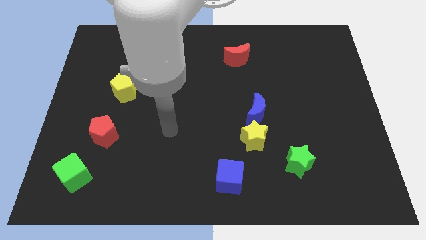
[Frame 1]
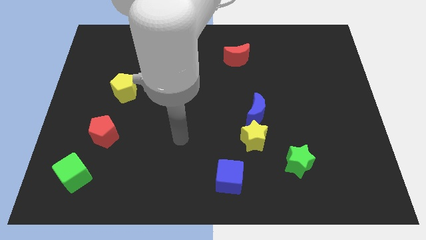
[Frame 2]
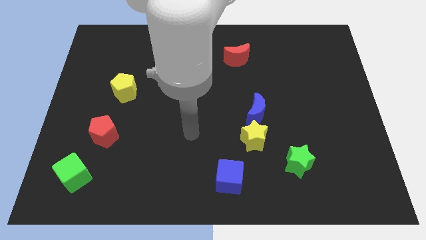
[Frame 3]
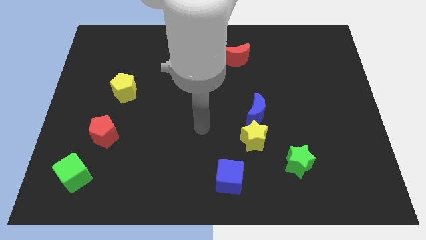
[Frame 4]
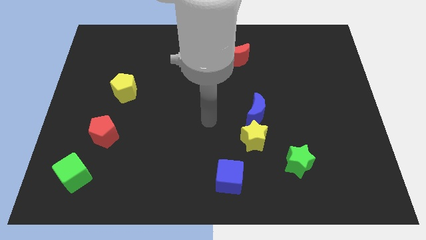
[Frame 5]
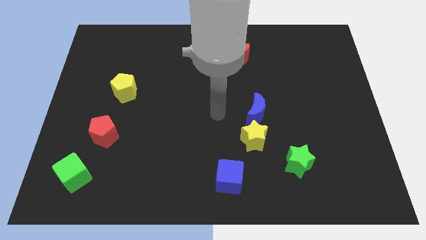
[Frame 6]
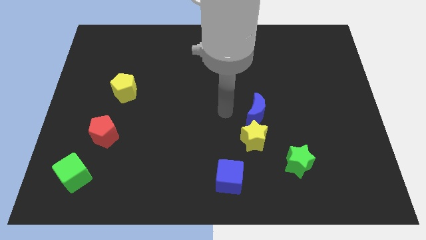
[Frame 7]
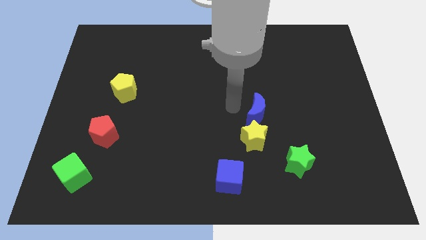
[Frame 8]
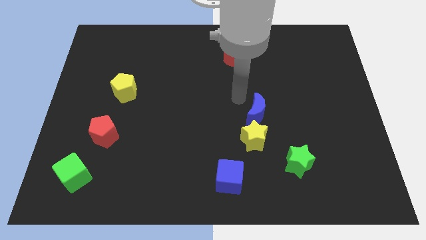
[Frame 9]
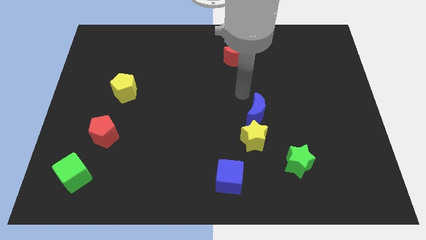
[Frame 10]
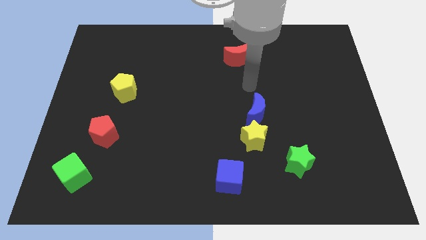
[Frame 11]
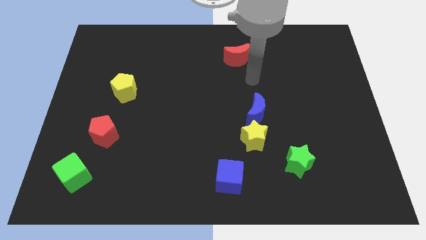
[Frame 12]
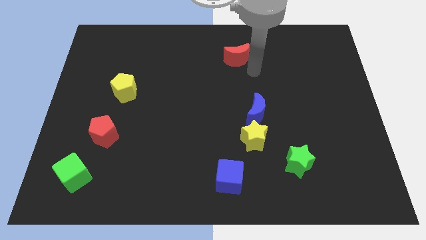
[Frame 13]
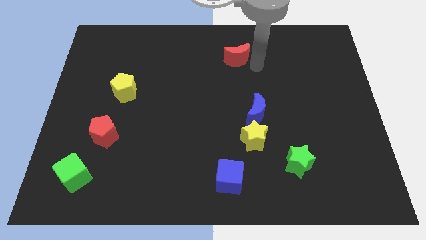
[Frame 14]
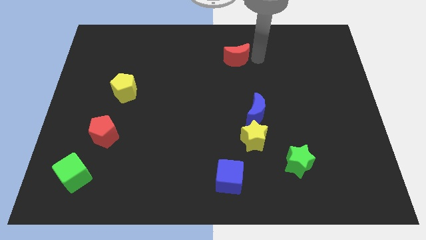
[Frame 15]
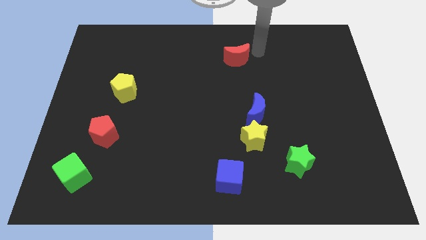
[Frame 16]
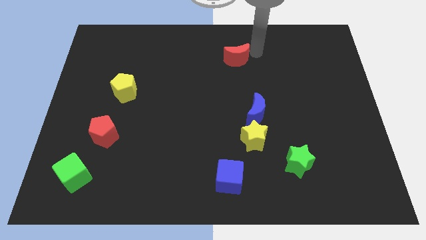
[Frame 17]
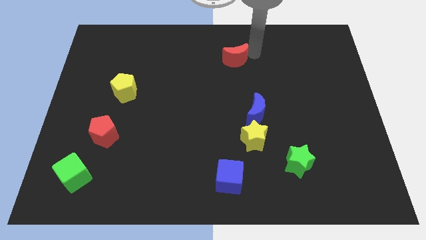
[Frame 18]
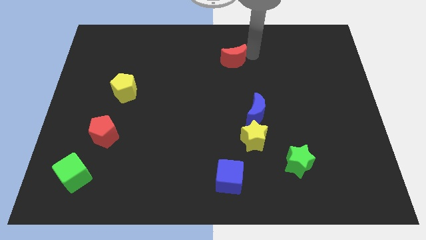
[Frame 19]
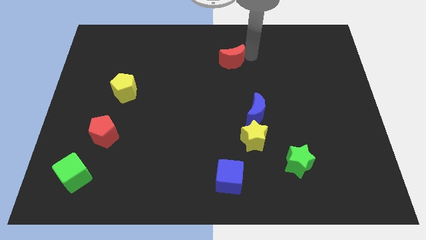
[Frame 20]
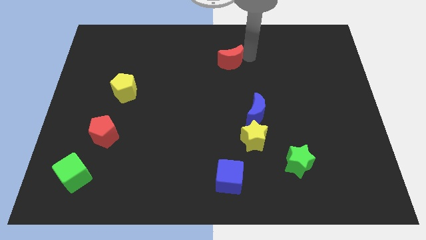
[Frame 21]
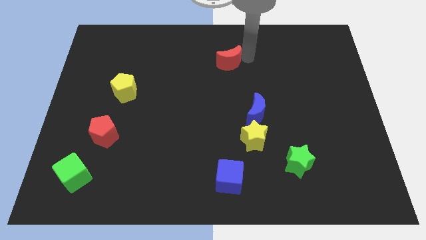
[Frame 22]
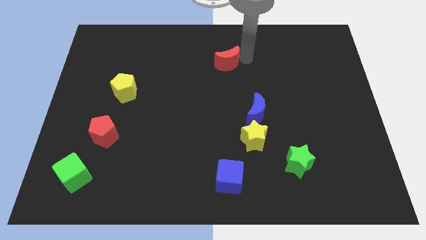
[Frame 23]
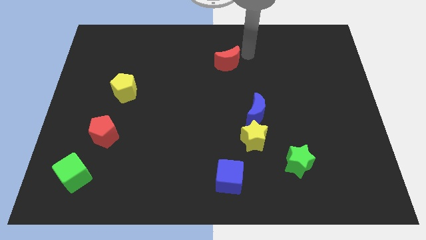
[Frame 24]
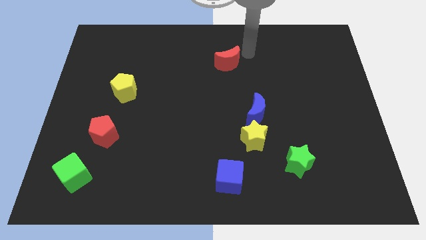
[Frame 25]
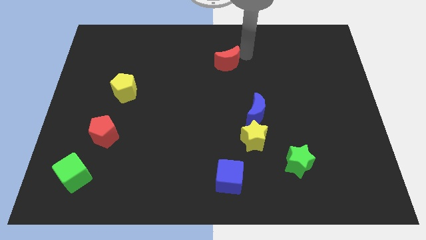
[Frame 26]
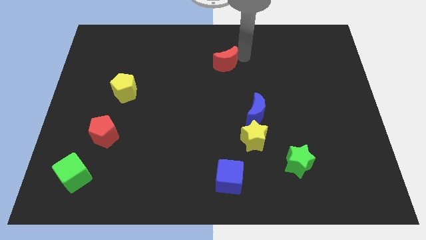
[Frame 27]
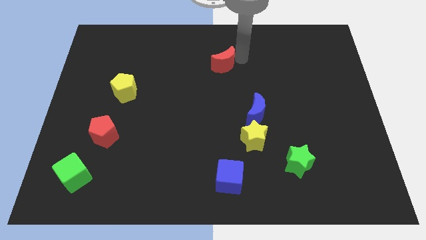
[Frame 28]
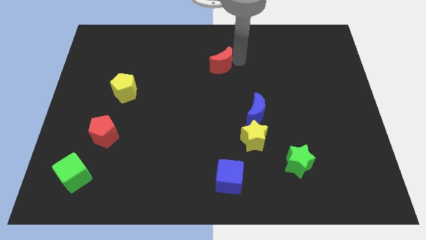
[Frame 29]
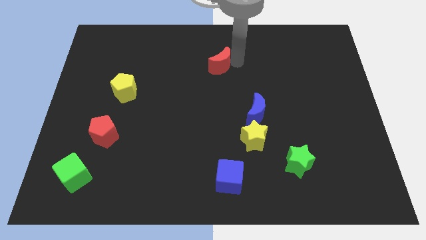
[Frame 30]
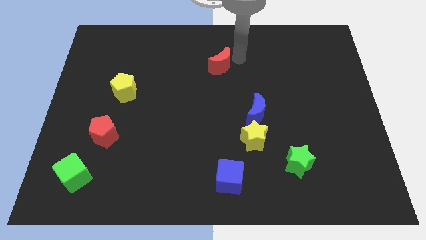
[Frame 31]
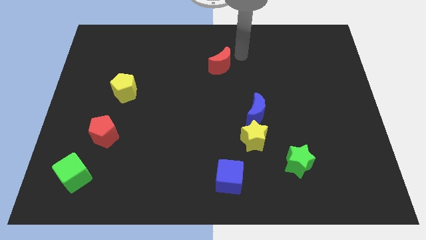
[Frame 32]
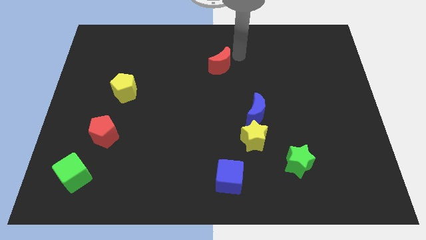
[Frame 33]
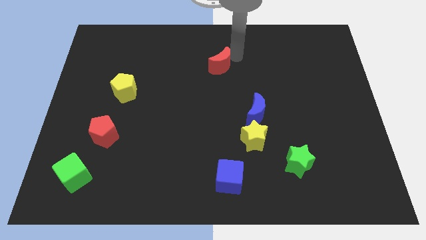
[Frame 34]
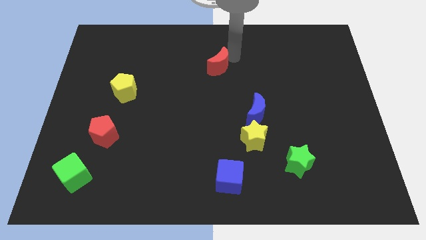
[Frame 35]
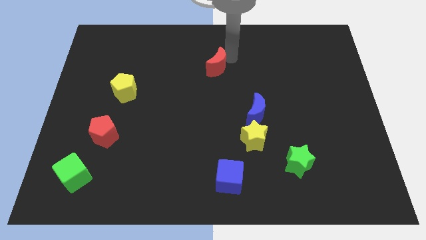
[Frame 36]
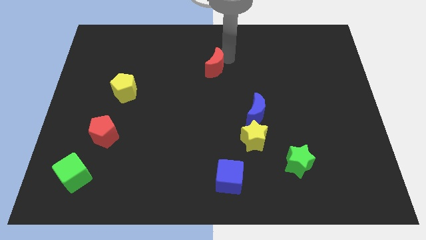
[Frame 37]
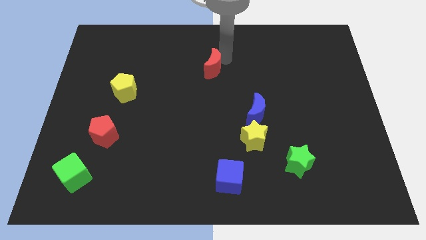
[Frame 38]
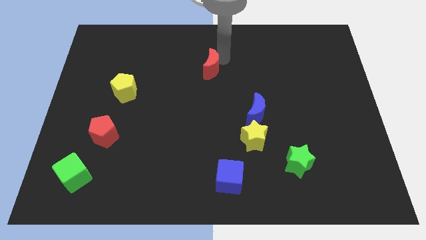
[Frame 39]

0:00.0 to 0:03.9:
push the red moon downwards and to the left diagonally slightly

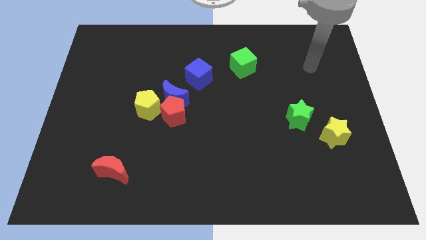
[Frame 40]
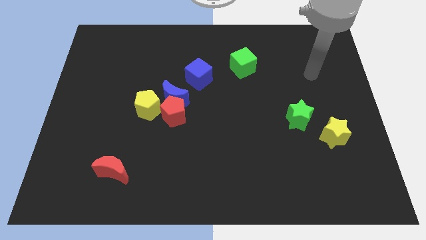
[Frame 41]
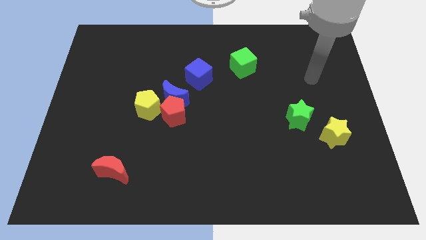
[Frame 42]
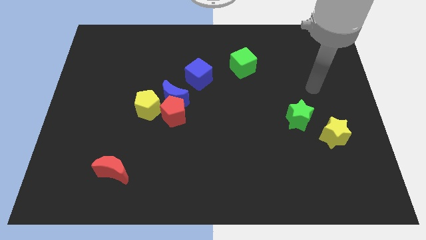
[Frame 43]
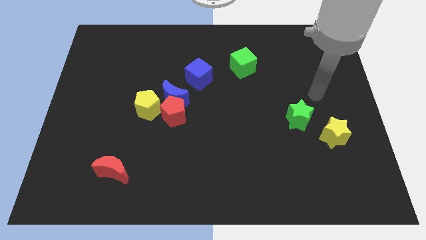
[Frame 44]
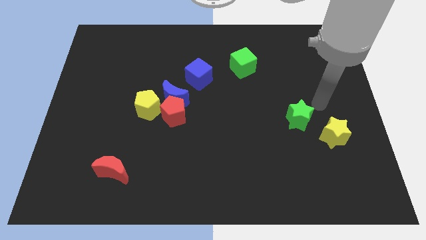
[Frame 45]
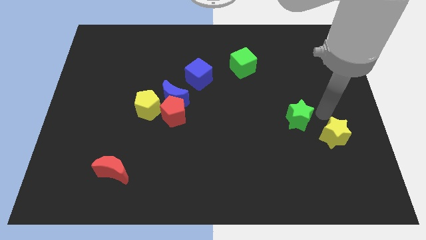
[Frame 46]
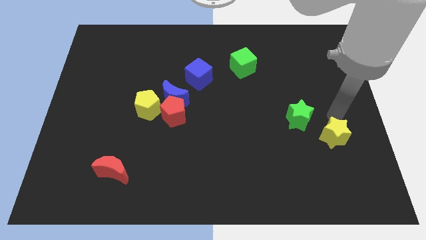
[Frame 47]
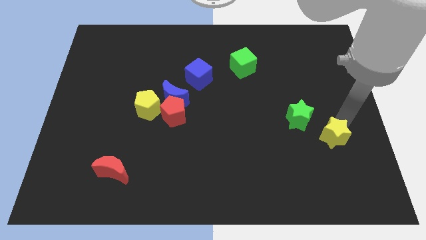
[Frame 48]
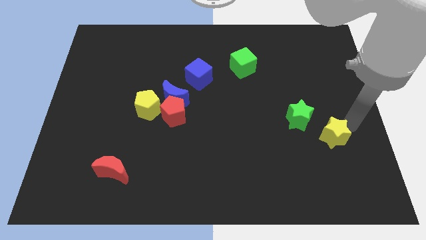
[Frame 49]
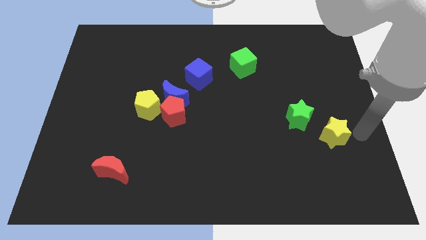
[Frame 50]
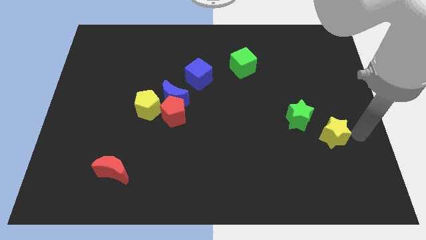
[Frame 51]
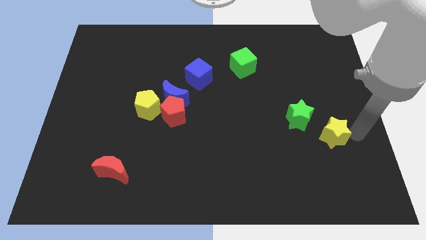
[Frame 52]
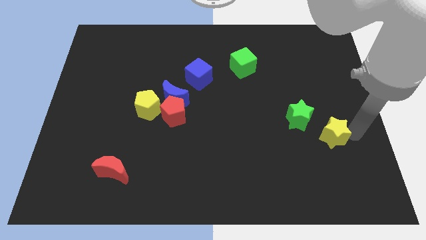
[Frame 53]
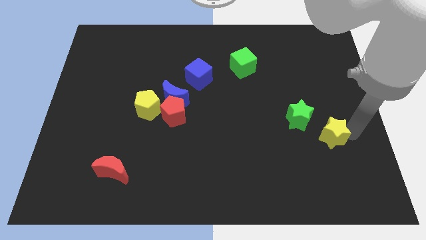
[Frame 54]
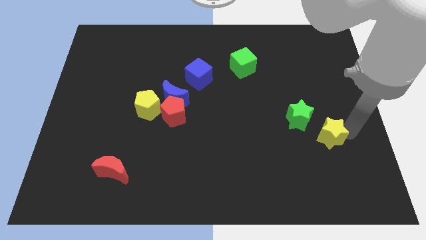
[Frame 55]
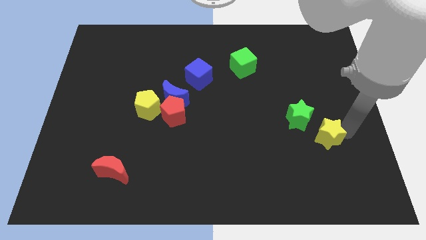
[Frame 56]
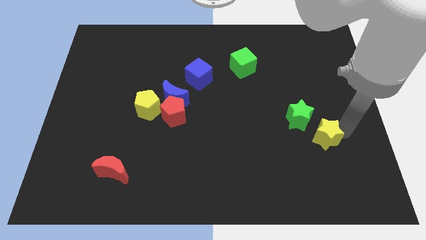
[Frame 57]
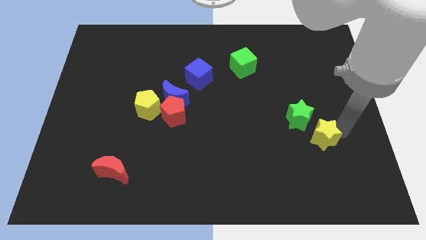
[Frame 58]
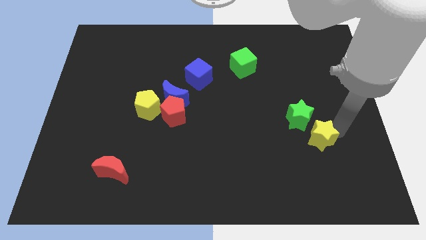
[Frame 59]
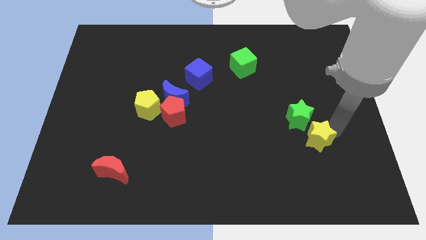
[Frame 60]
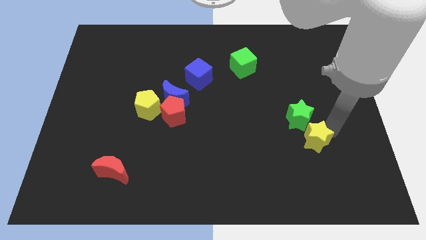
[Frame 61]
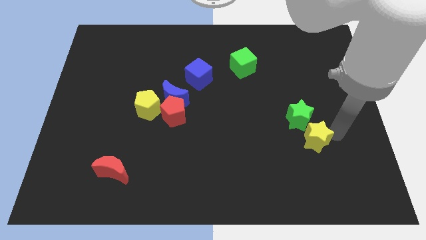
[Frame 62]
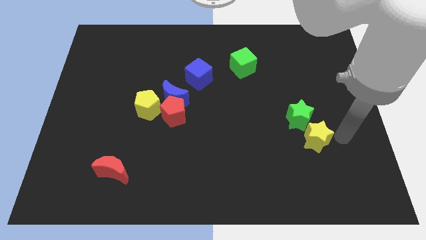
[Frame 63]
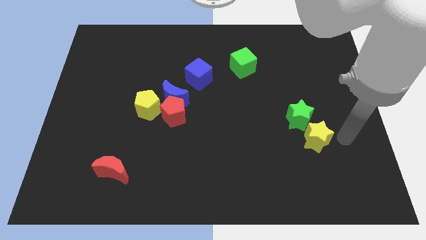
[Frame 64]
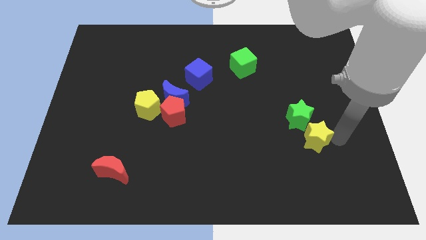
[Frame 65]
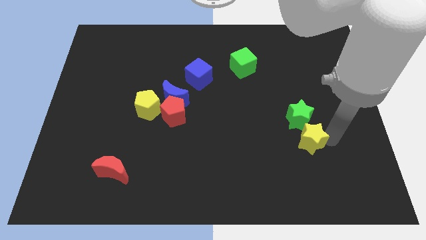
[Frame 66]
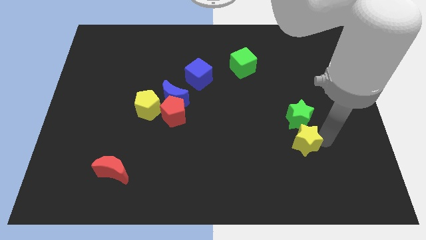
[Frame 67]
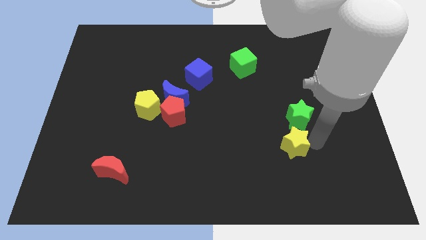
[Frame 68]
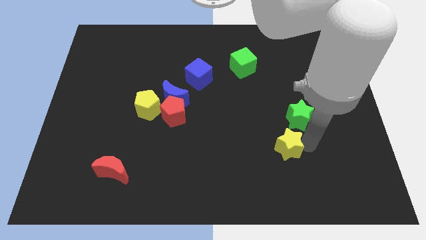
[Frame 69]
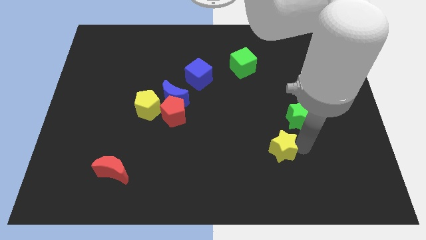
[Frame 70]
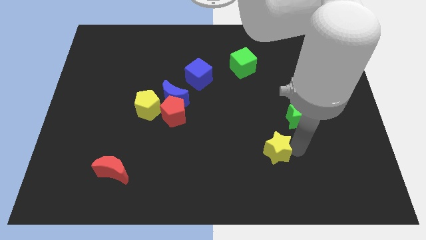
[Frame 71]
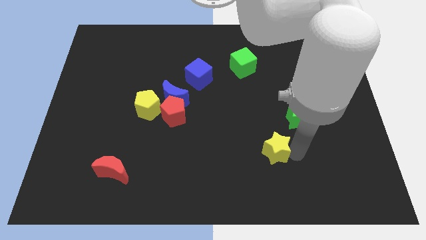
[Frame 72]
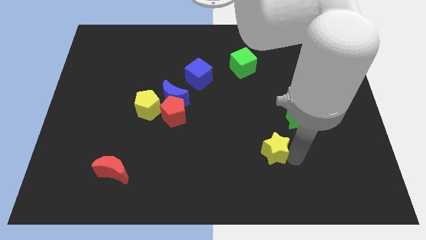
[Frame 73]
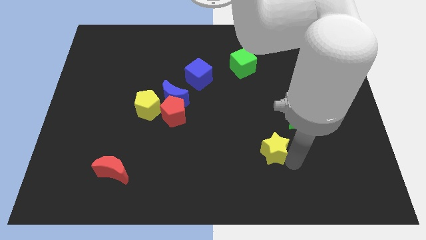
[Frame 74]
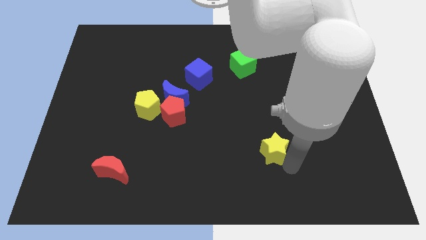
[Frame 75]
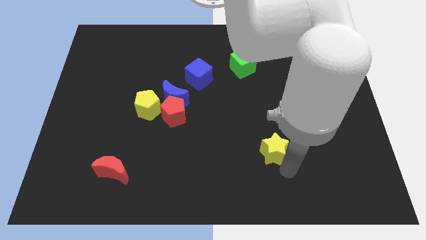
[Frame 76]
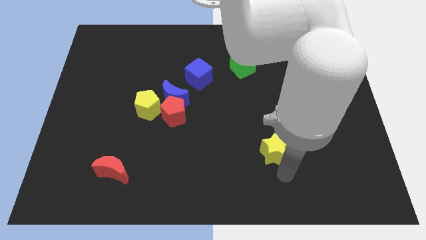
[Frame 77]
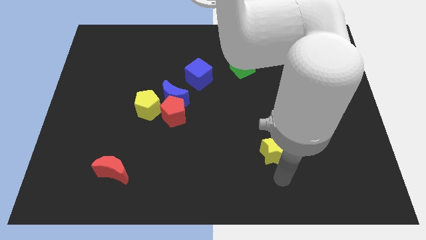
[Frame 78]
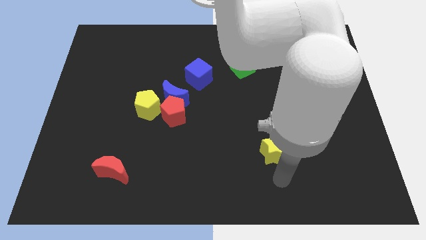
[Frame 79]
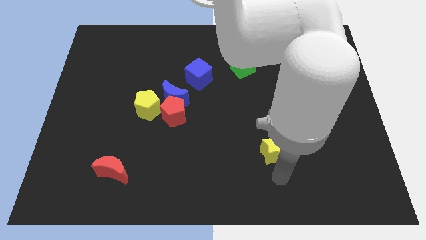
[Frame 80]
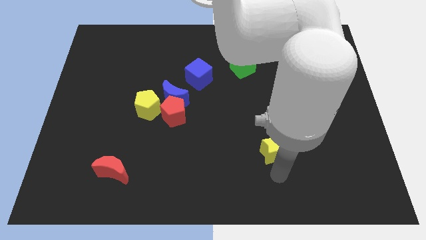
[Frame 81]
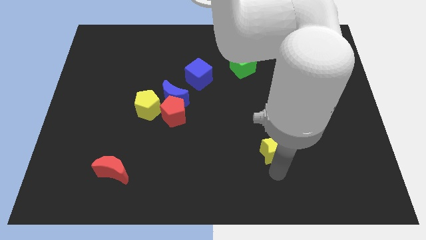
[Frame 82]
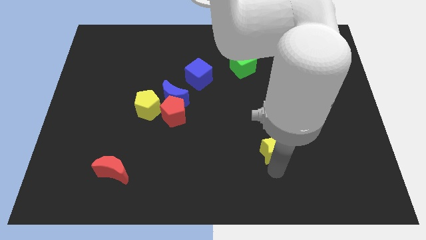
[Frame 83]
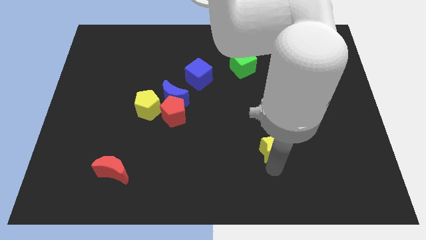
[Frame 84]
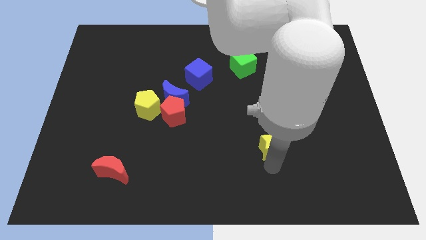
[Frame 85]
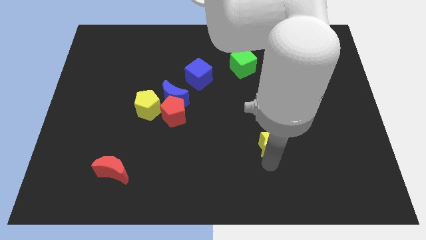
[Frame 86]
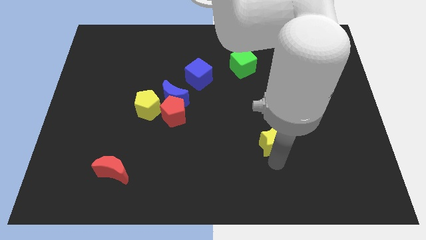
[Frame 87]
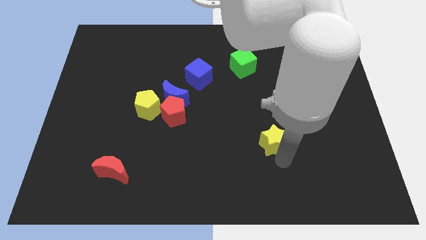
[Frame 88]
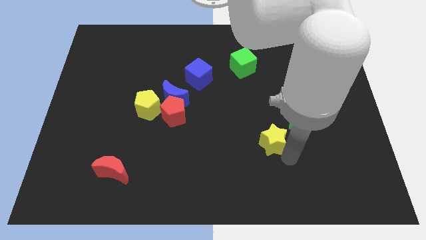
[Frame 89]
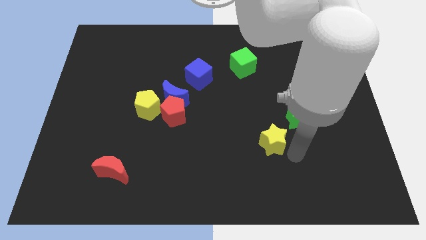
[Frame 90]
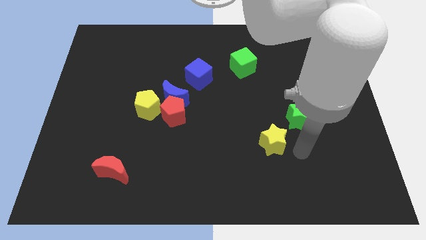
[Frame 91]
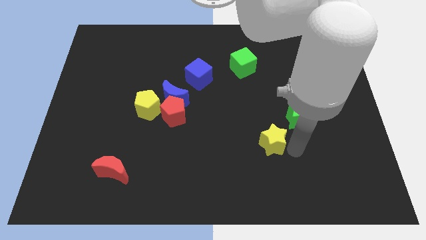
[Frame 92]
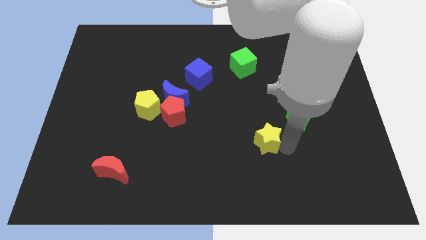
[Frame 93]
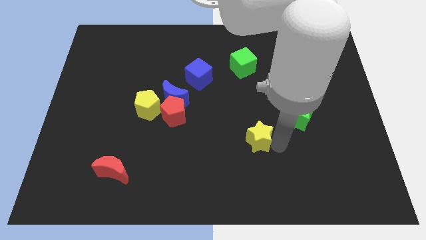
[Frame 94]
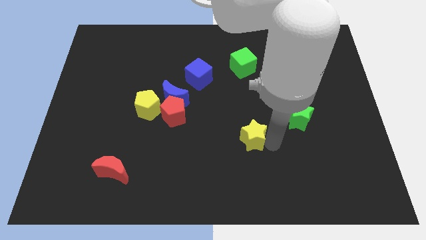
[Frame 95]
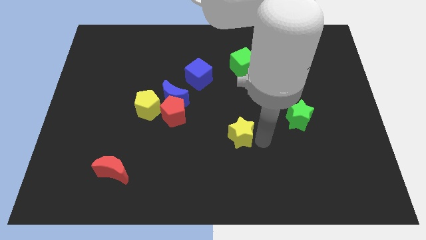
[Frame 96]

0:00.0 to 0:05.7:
move the yellow star left
